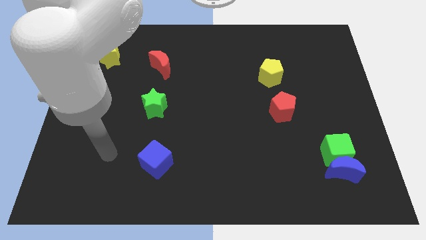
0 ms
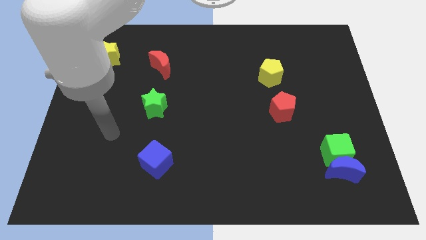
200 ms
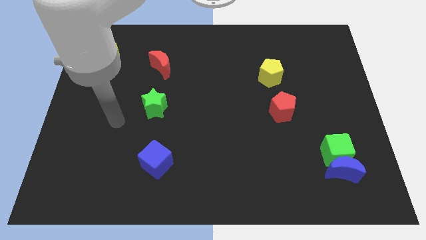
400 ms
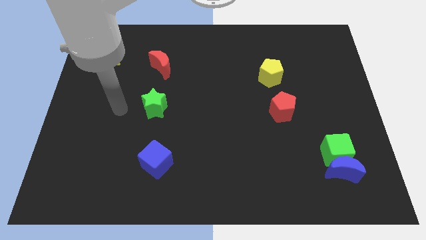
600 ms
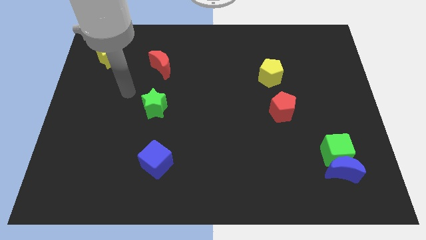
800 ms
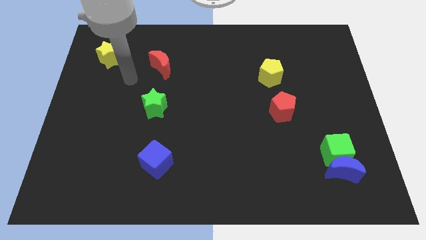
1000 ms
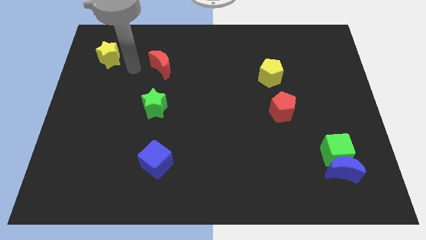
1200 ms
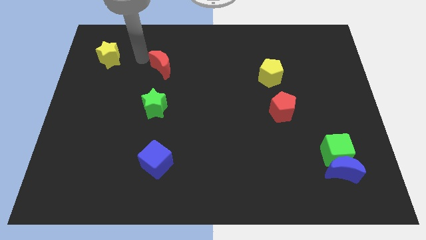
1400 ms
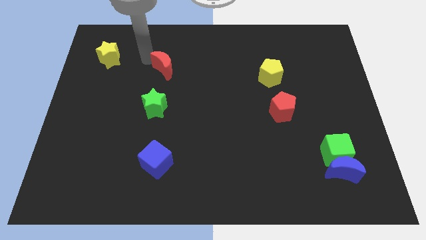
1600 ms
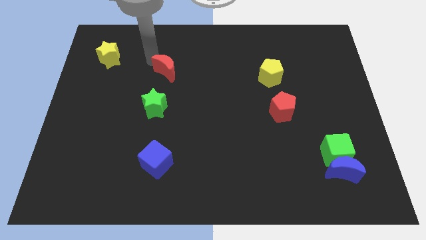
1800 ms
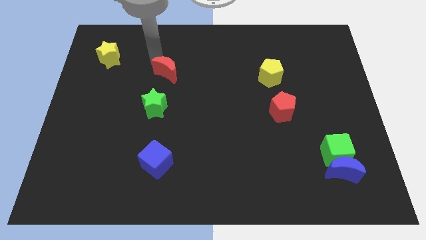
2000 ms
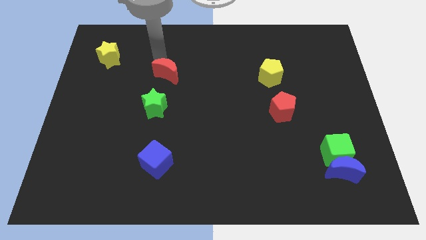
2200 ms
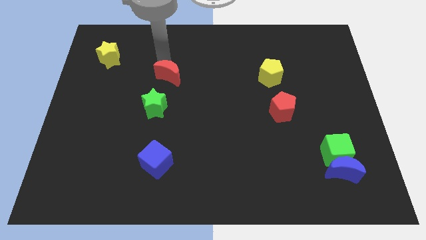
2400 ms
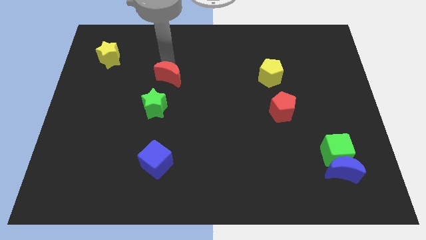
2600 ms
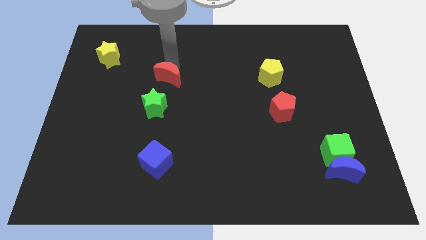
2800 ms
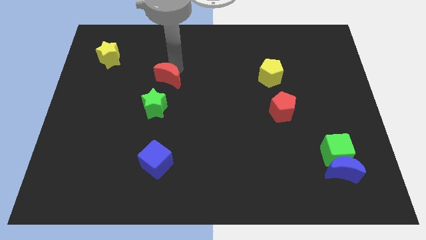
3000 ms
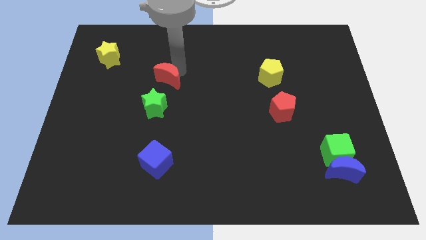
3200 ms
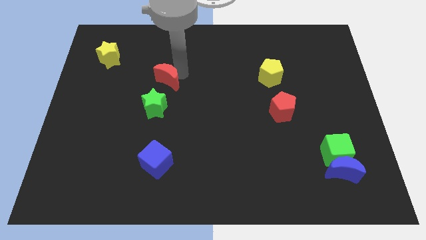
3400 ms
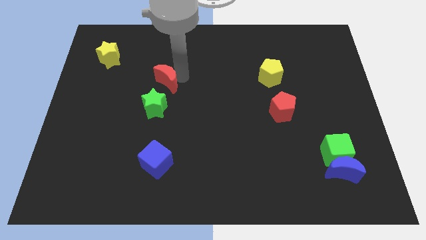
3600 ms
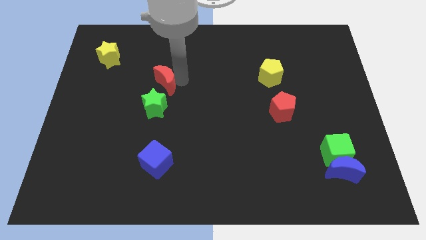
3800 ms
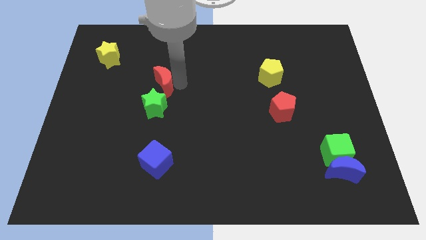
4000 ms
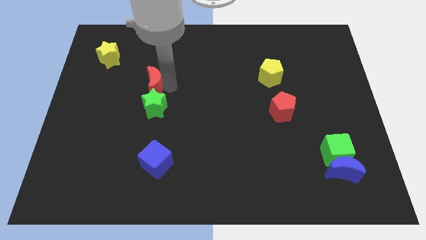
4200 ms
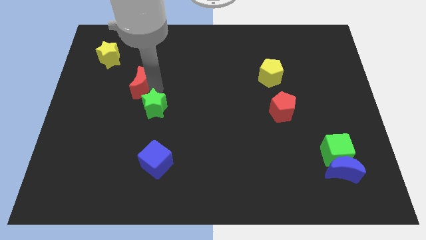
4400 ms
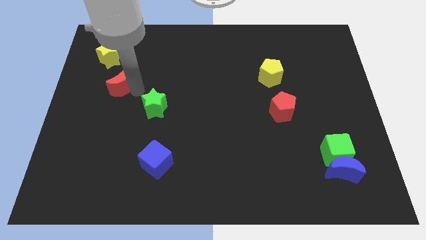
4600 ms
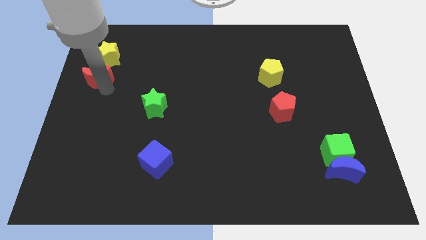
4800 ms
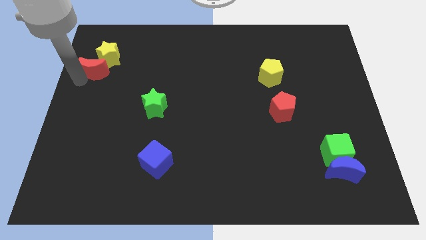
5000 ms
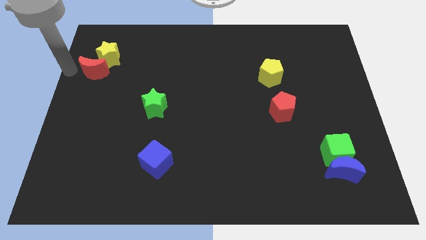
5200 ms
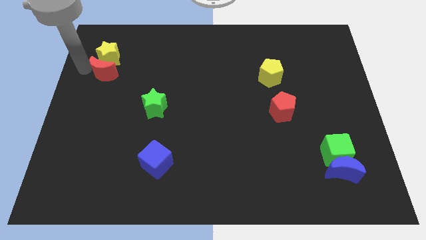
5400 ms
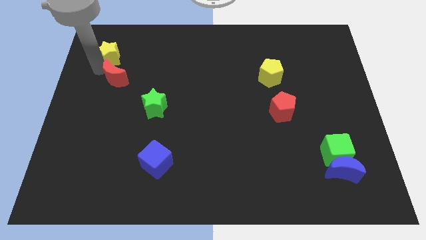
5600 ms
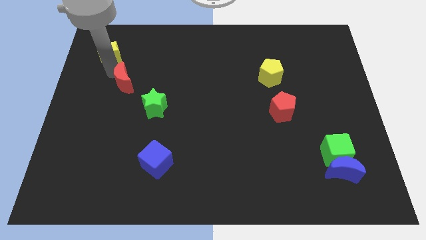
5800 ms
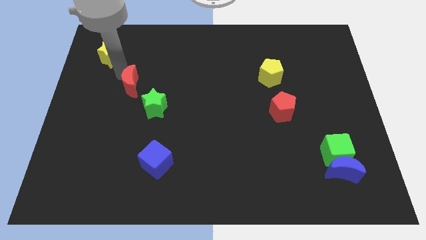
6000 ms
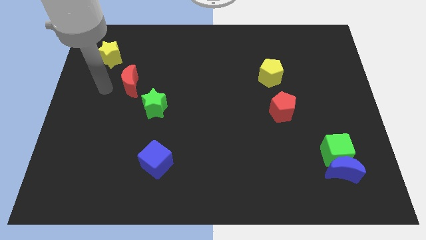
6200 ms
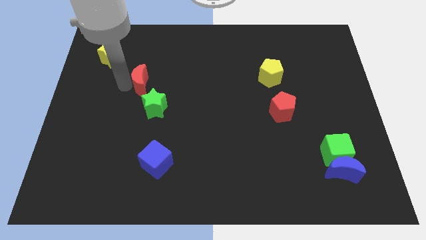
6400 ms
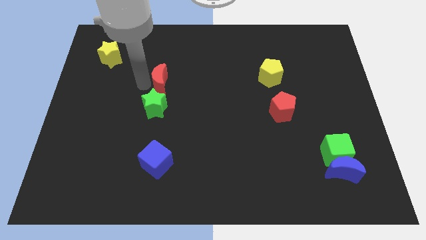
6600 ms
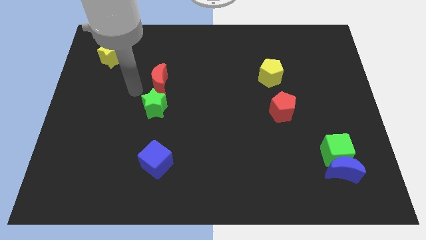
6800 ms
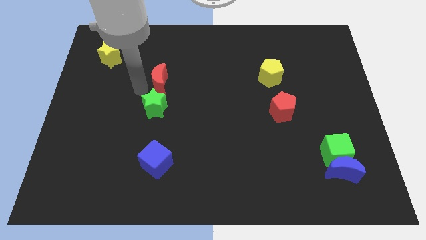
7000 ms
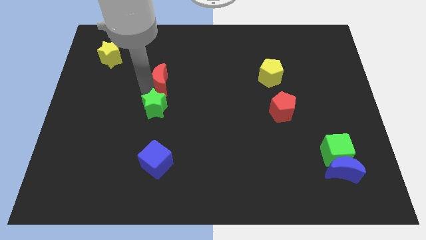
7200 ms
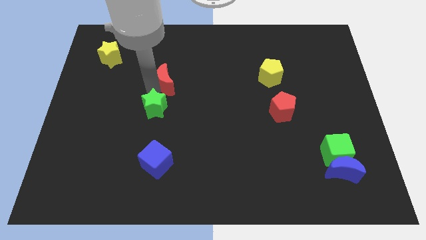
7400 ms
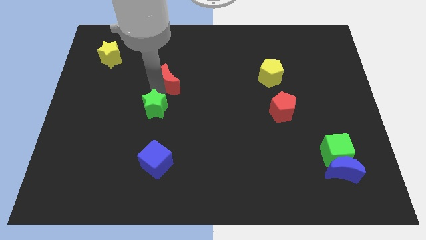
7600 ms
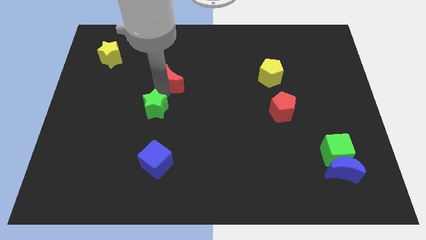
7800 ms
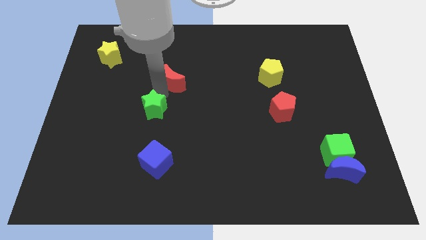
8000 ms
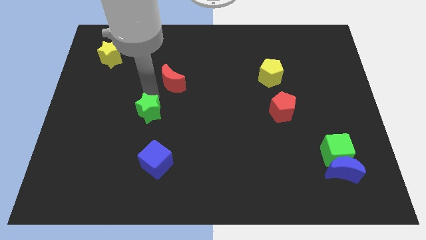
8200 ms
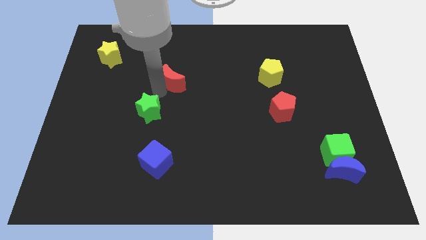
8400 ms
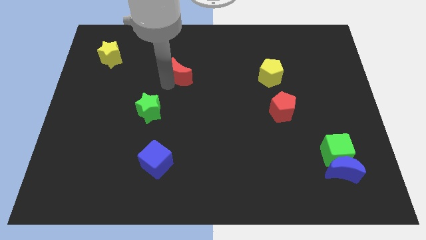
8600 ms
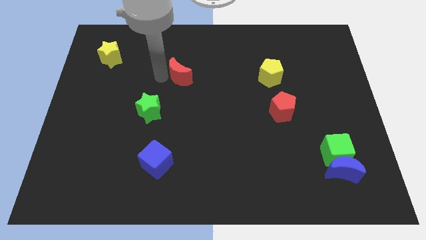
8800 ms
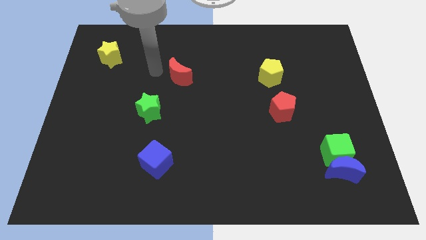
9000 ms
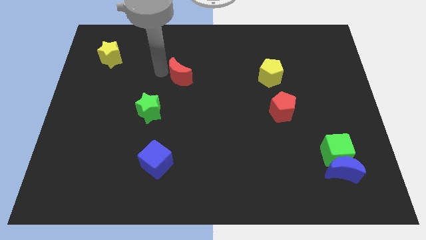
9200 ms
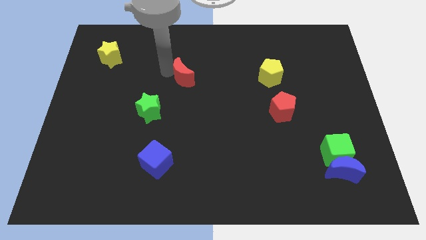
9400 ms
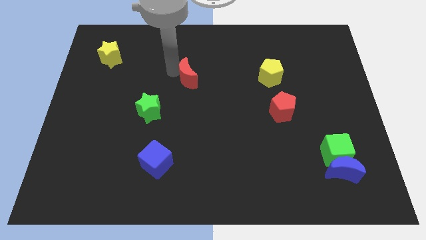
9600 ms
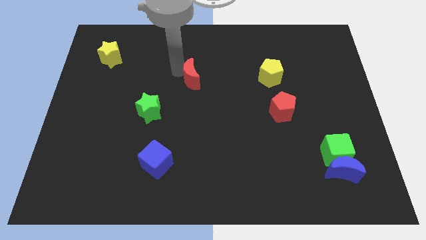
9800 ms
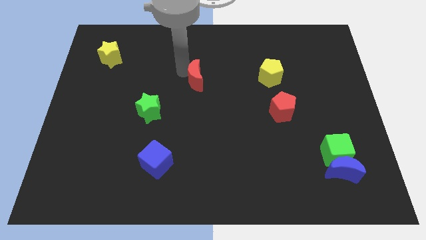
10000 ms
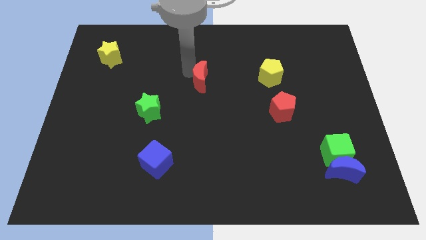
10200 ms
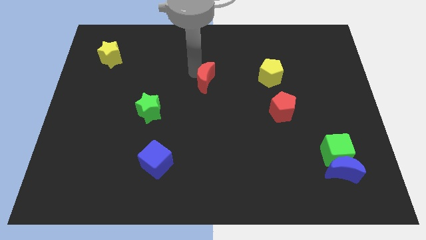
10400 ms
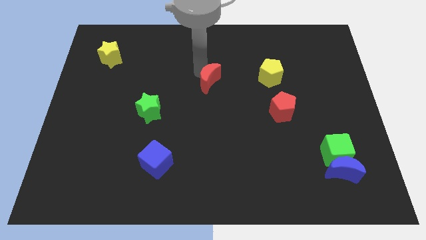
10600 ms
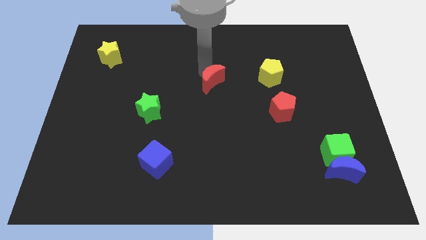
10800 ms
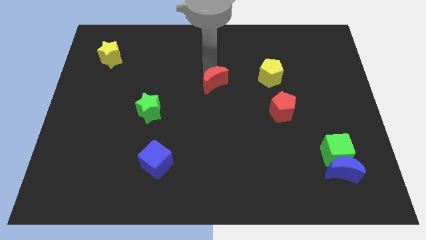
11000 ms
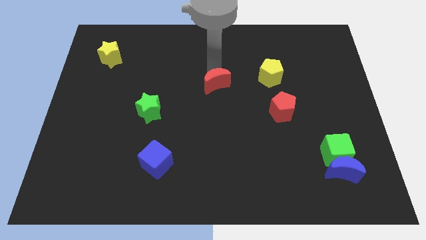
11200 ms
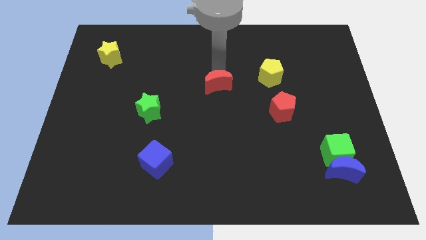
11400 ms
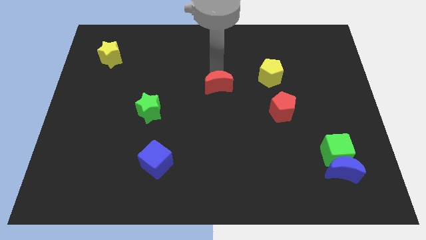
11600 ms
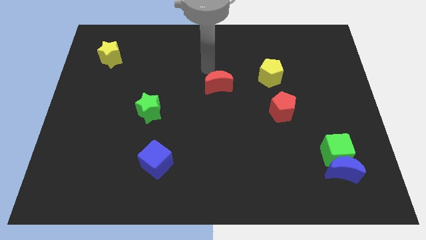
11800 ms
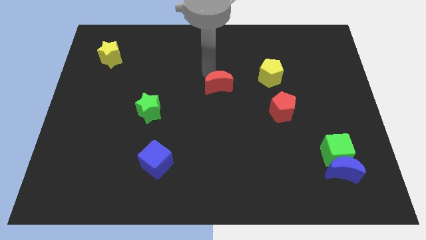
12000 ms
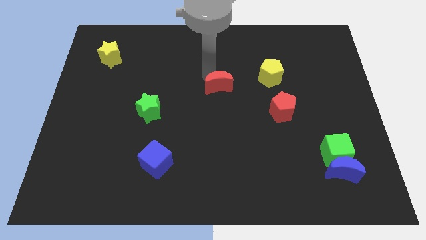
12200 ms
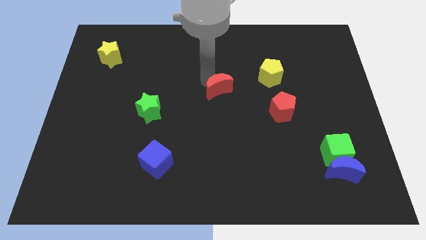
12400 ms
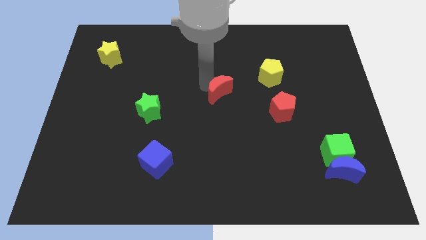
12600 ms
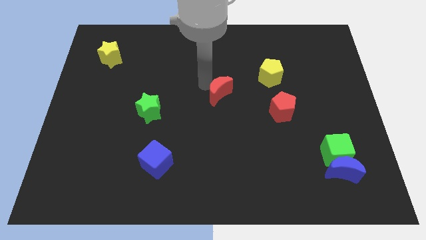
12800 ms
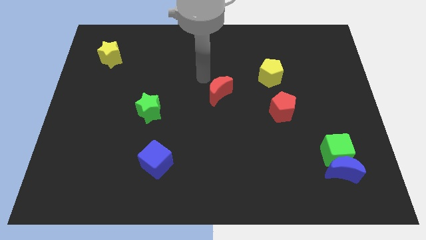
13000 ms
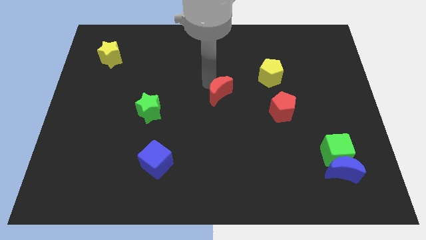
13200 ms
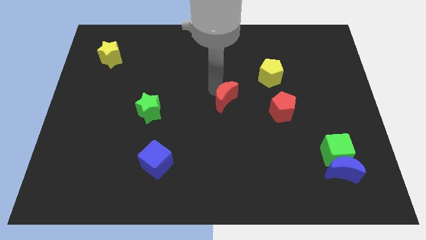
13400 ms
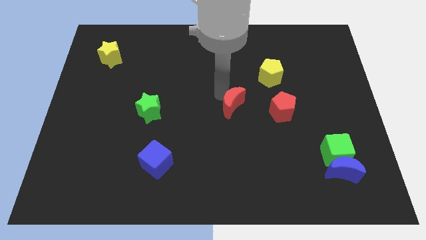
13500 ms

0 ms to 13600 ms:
move the red moon downwards and to the right

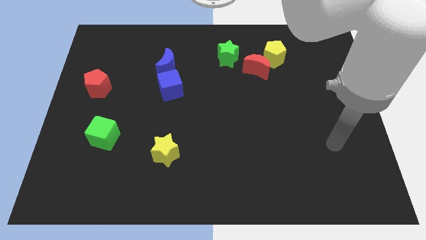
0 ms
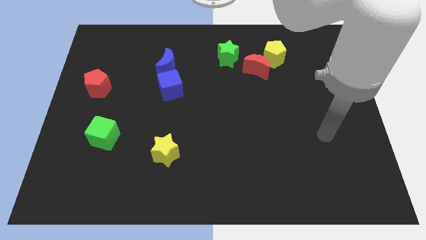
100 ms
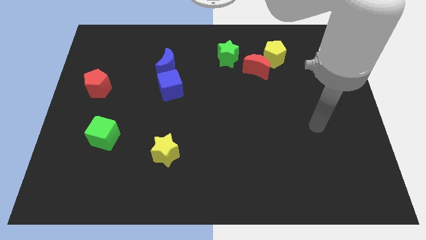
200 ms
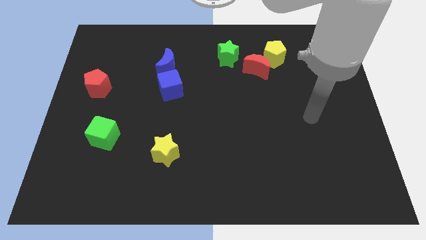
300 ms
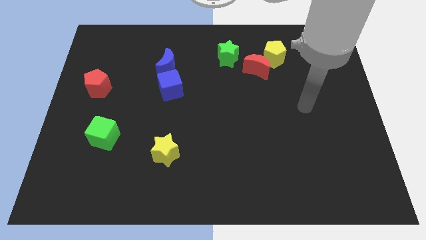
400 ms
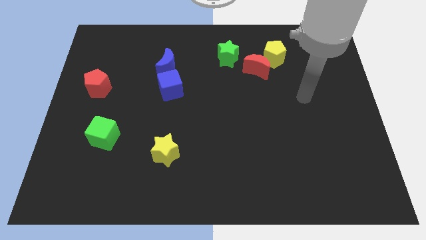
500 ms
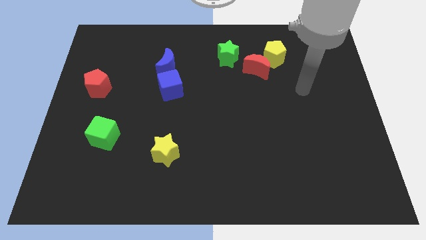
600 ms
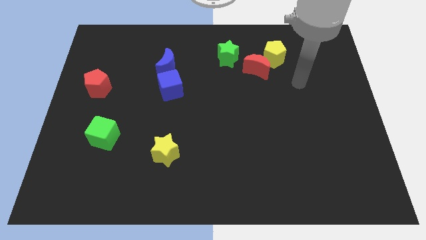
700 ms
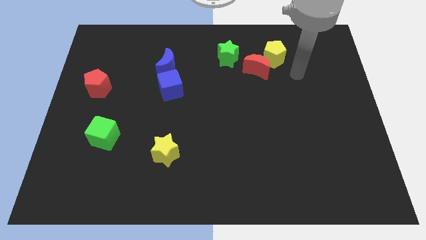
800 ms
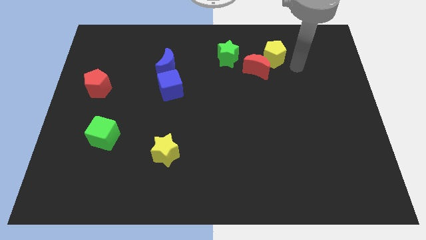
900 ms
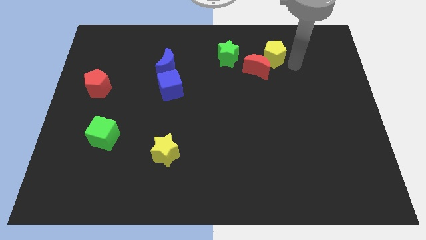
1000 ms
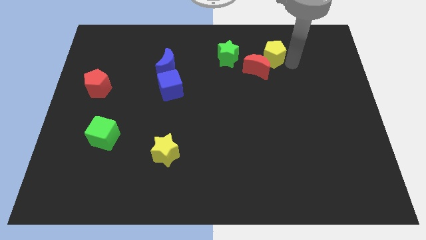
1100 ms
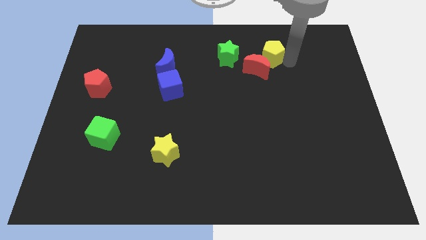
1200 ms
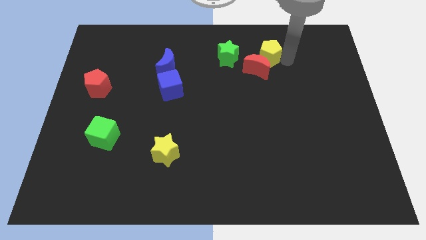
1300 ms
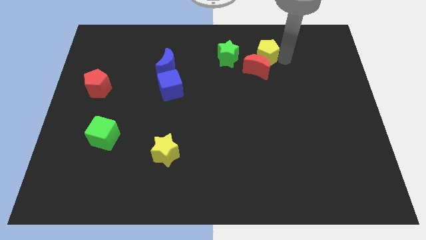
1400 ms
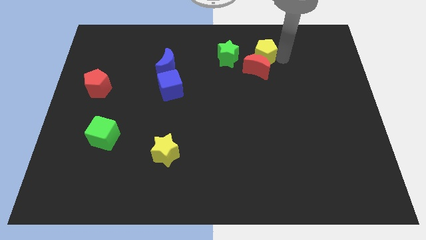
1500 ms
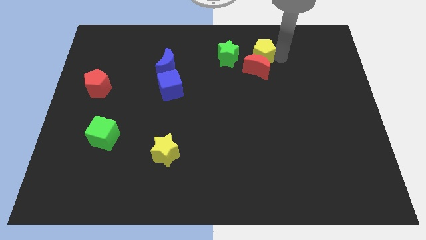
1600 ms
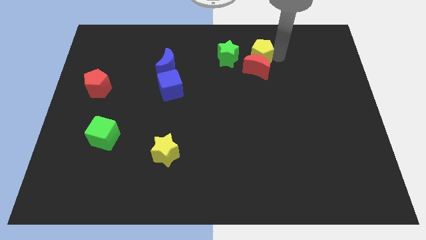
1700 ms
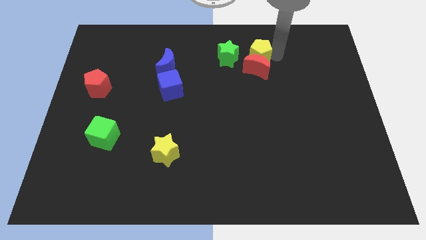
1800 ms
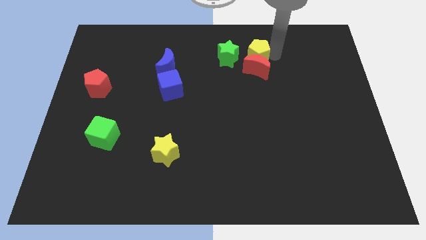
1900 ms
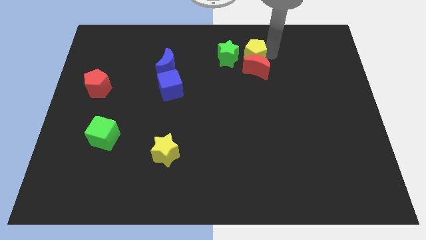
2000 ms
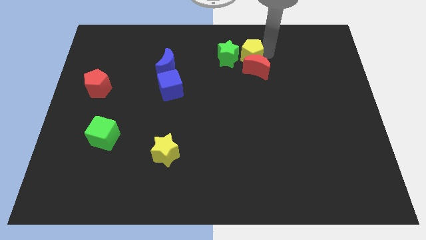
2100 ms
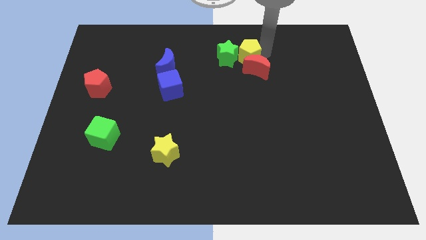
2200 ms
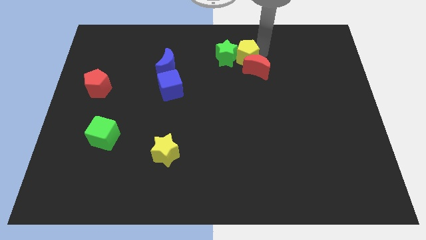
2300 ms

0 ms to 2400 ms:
slightly slide the yellow pentagon to the left
